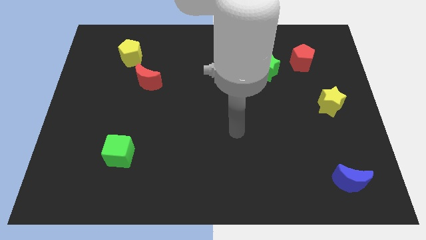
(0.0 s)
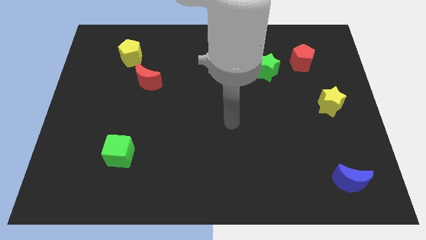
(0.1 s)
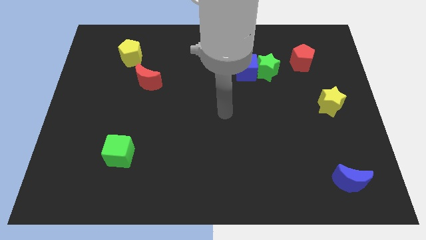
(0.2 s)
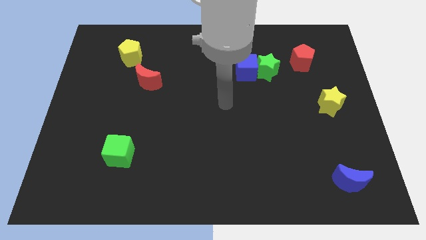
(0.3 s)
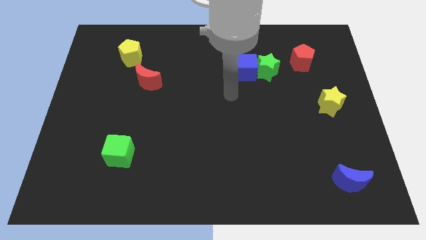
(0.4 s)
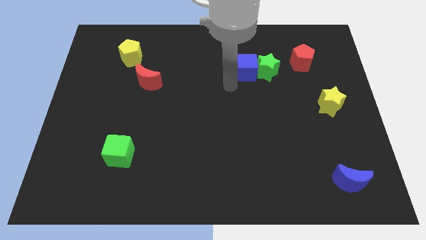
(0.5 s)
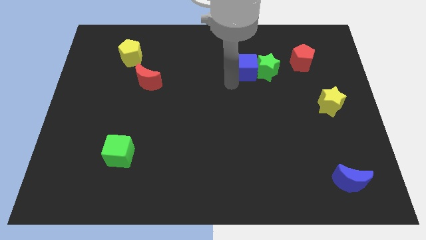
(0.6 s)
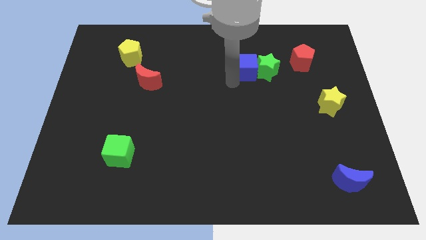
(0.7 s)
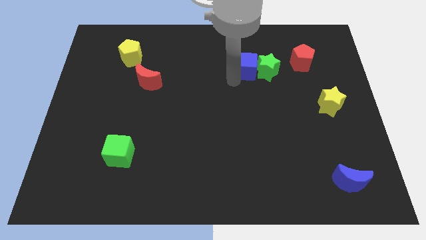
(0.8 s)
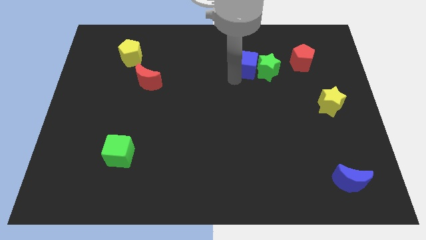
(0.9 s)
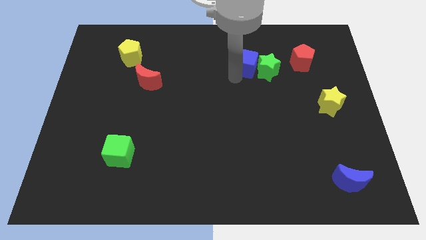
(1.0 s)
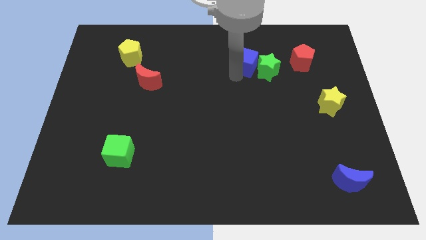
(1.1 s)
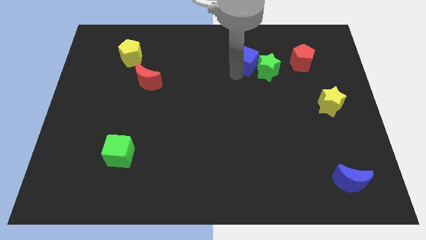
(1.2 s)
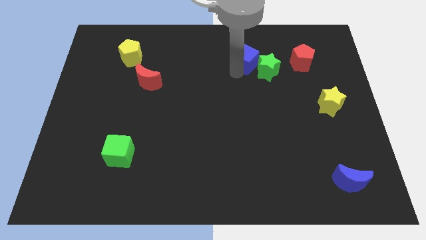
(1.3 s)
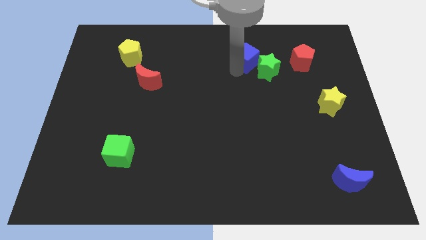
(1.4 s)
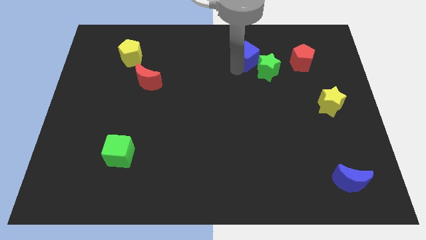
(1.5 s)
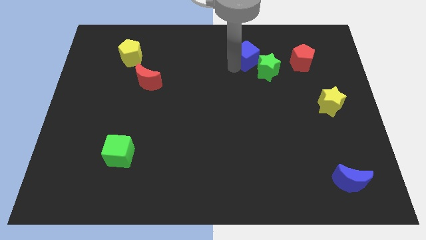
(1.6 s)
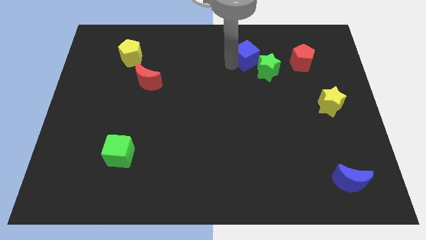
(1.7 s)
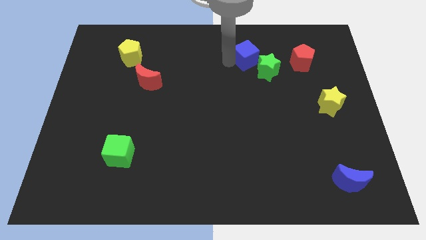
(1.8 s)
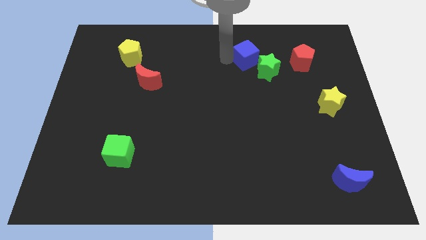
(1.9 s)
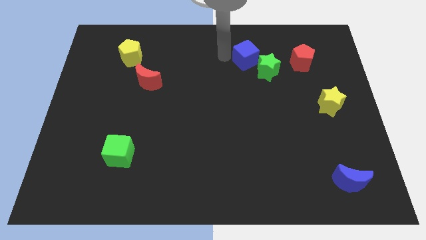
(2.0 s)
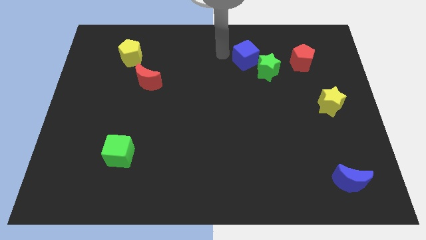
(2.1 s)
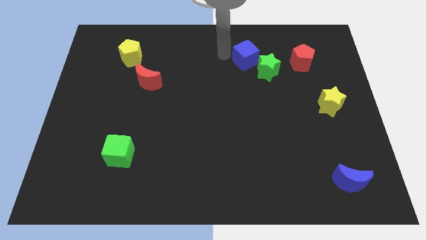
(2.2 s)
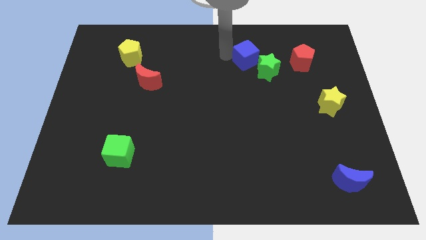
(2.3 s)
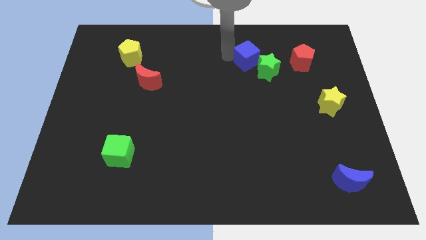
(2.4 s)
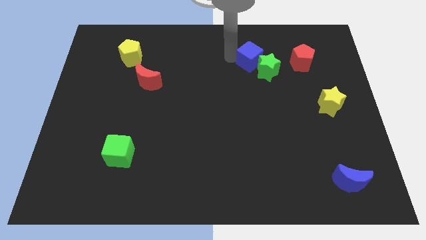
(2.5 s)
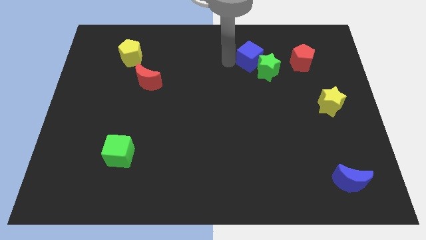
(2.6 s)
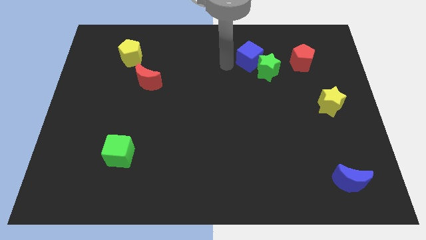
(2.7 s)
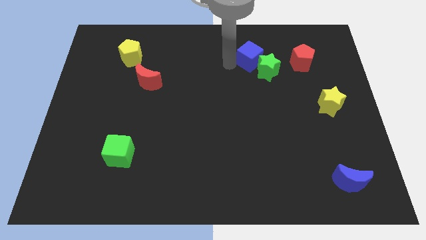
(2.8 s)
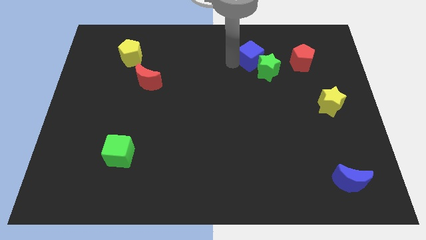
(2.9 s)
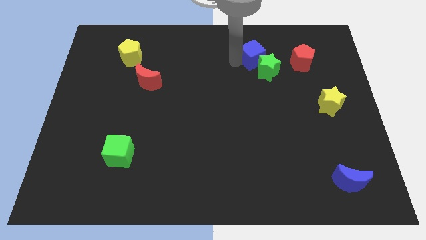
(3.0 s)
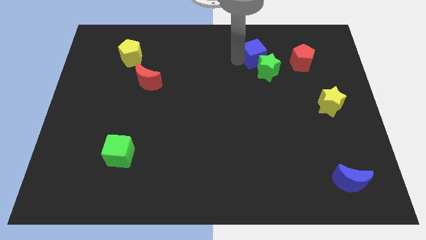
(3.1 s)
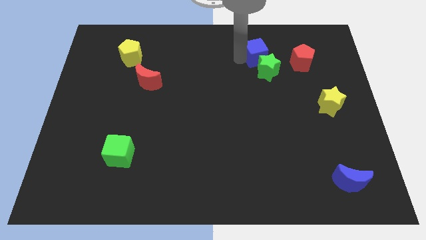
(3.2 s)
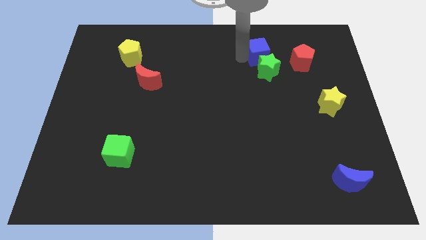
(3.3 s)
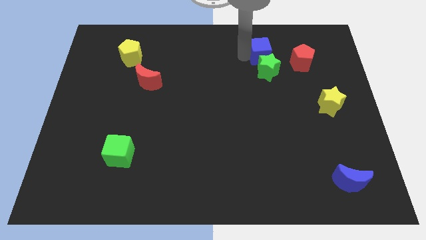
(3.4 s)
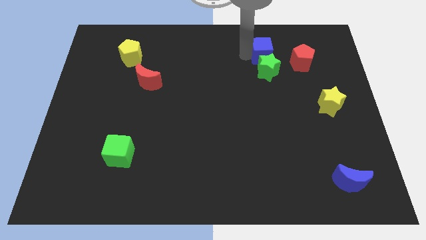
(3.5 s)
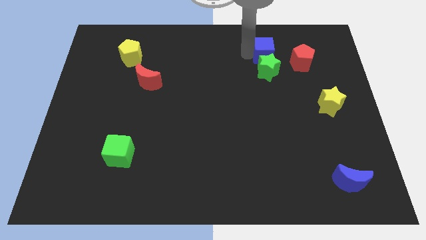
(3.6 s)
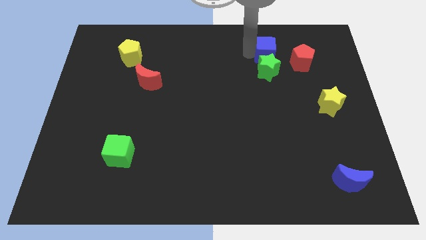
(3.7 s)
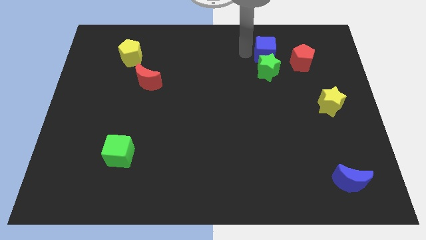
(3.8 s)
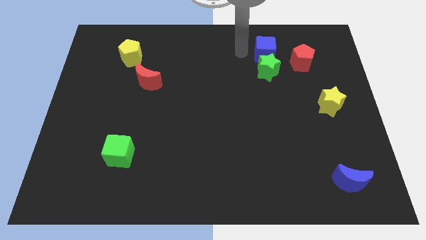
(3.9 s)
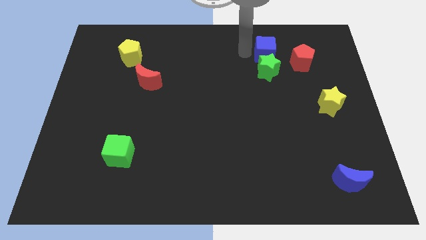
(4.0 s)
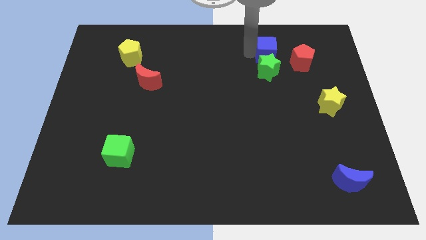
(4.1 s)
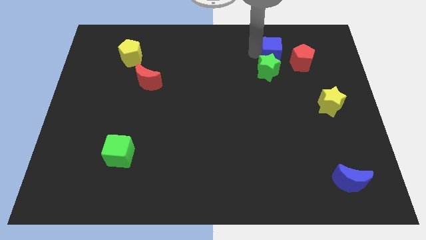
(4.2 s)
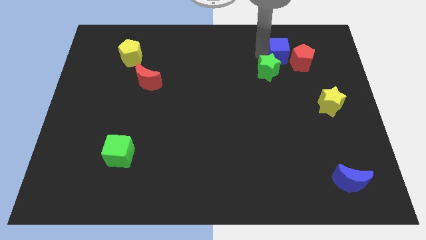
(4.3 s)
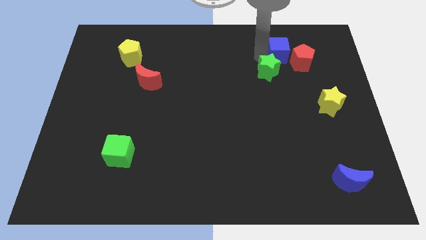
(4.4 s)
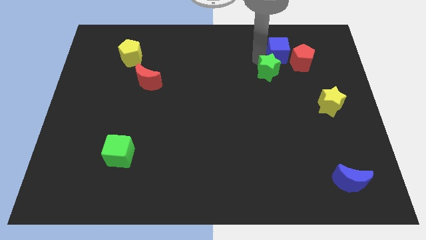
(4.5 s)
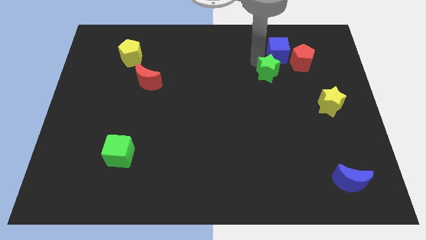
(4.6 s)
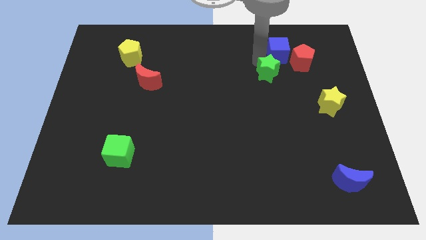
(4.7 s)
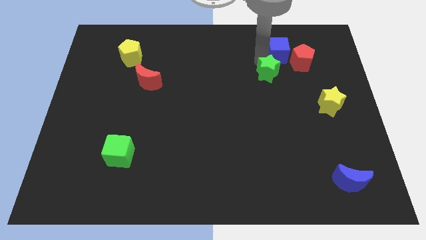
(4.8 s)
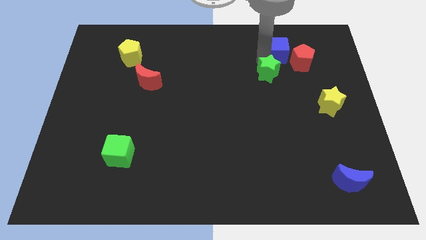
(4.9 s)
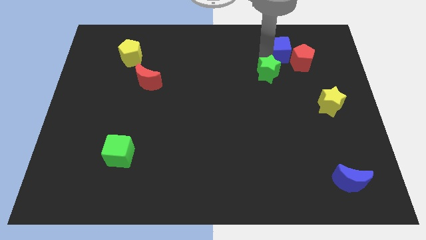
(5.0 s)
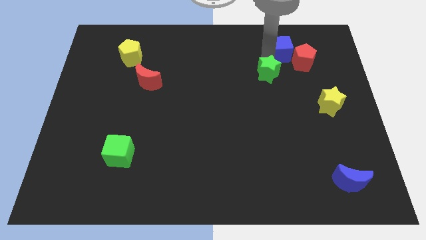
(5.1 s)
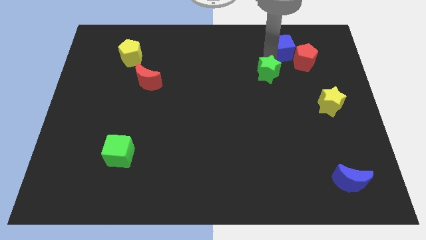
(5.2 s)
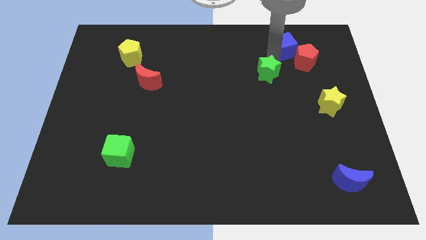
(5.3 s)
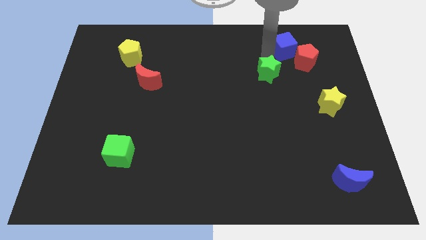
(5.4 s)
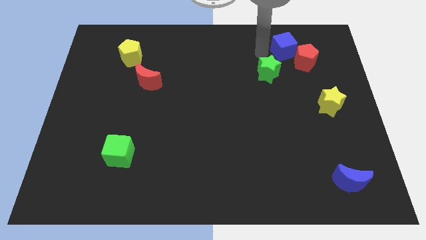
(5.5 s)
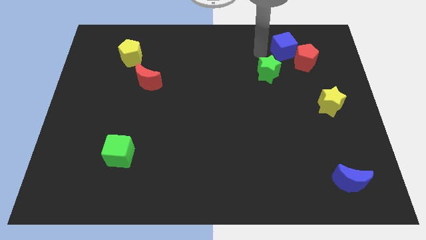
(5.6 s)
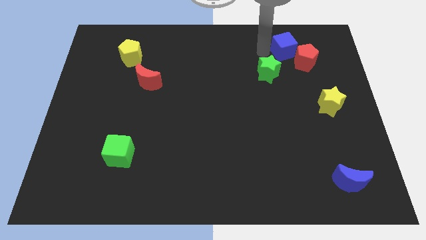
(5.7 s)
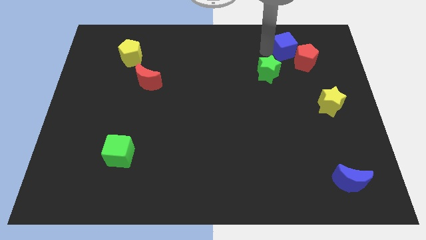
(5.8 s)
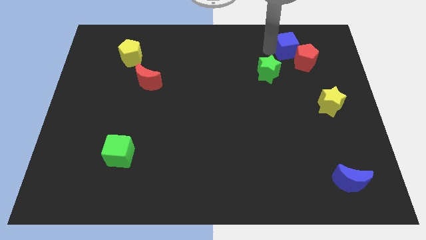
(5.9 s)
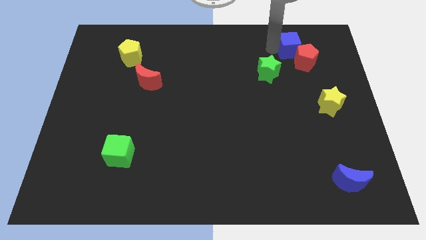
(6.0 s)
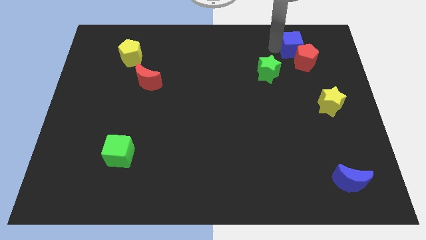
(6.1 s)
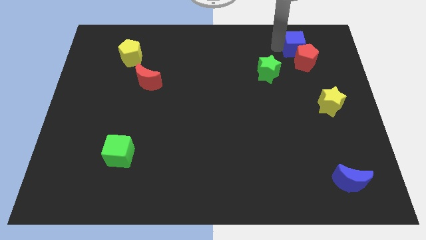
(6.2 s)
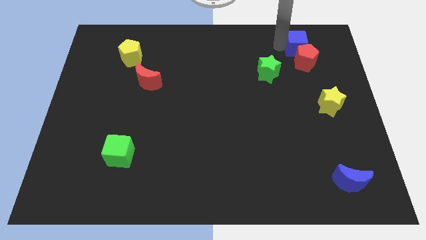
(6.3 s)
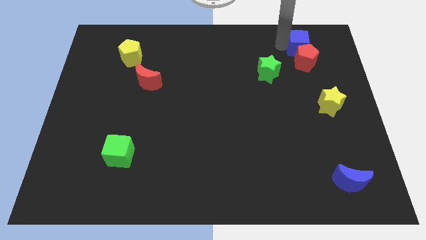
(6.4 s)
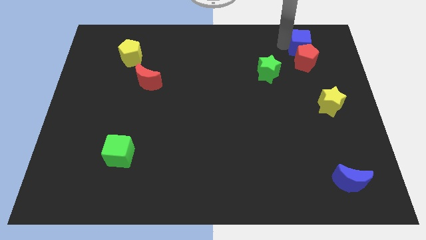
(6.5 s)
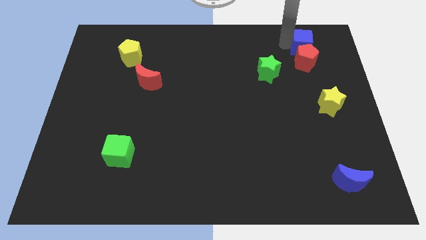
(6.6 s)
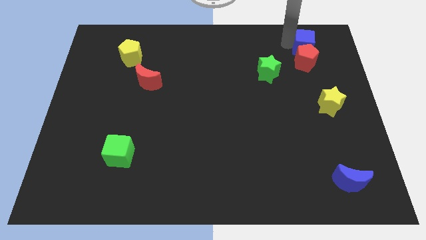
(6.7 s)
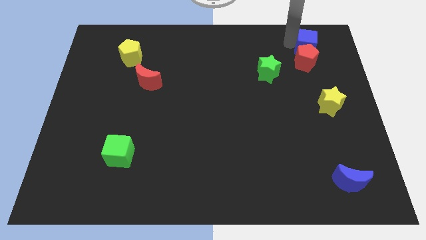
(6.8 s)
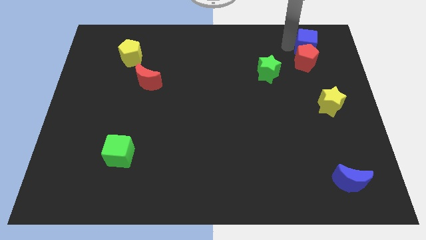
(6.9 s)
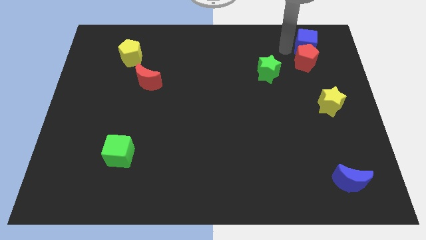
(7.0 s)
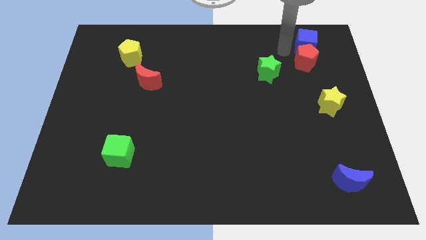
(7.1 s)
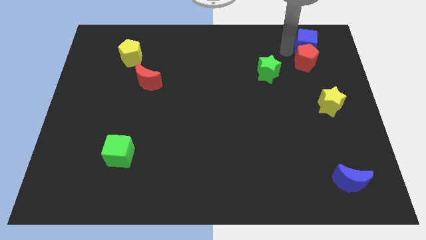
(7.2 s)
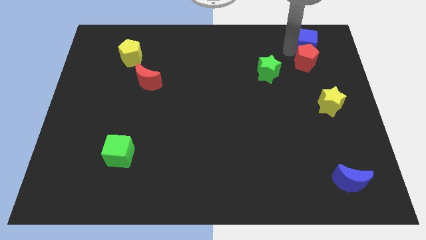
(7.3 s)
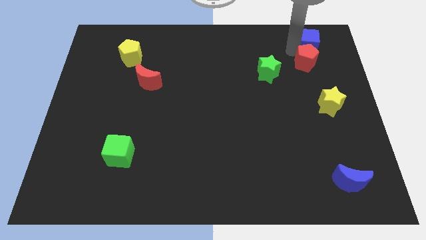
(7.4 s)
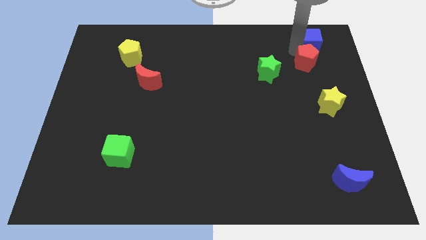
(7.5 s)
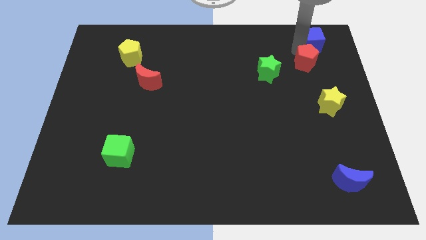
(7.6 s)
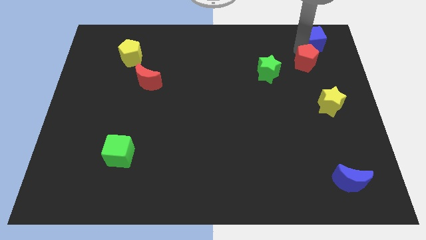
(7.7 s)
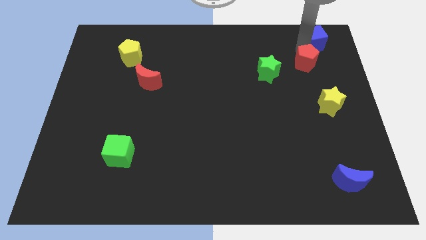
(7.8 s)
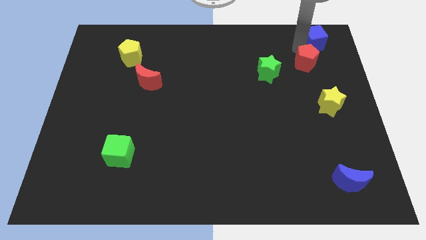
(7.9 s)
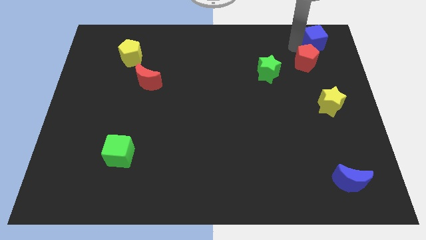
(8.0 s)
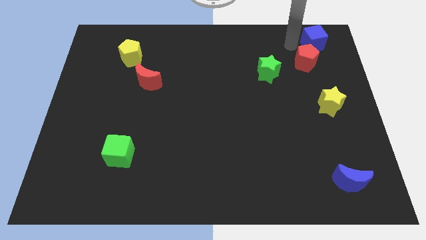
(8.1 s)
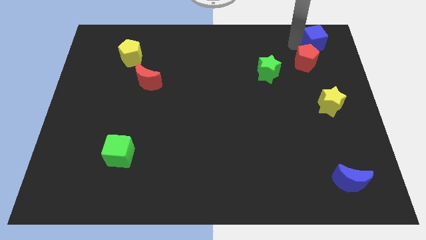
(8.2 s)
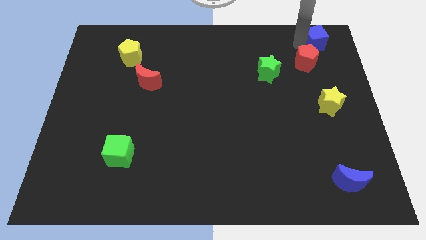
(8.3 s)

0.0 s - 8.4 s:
push the blue cube to the upper right corner
